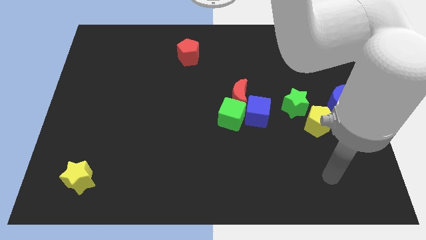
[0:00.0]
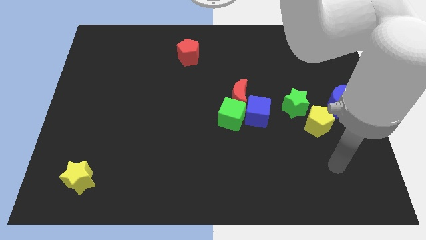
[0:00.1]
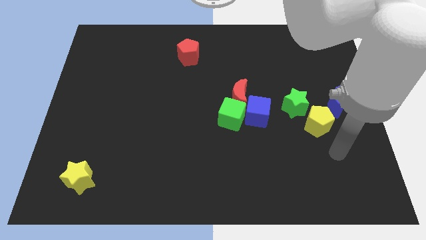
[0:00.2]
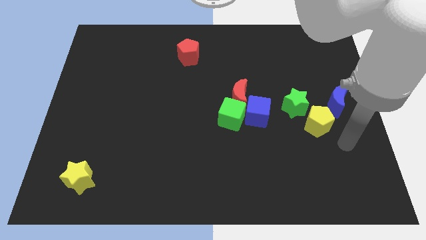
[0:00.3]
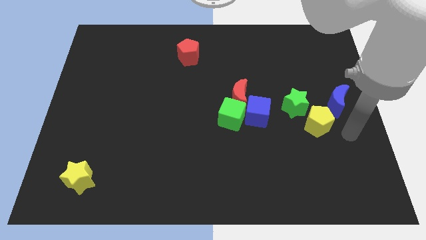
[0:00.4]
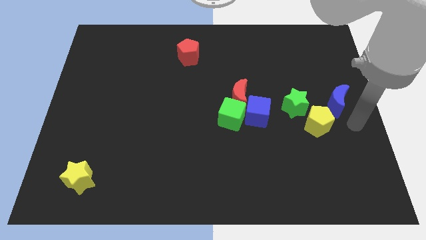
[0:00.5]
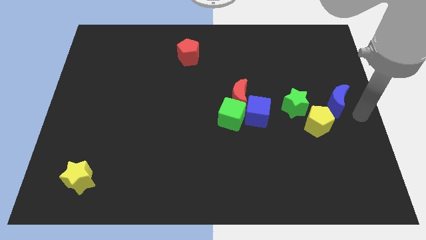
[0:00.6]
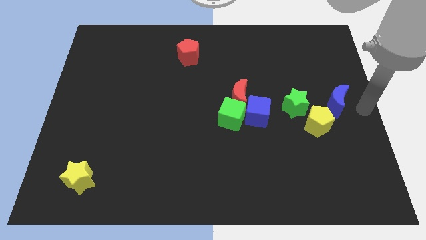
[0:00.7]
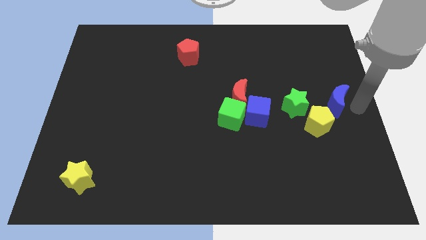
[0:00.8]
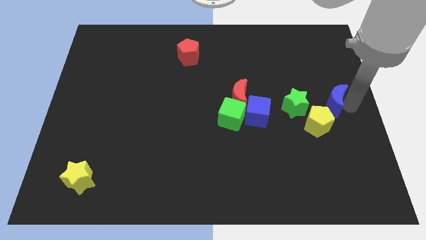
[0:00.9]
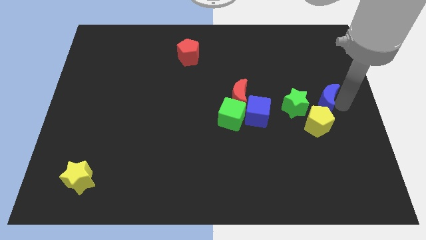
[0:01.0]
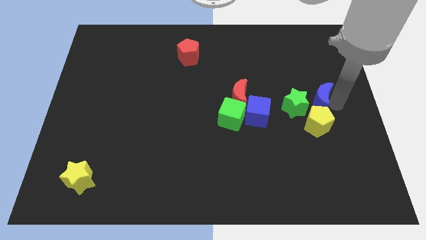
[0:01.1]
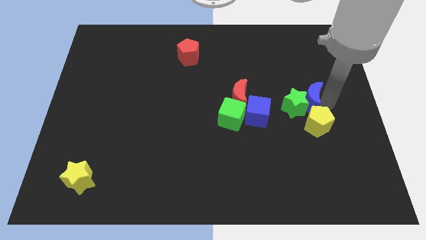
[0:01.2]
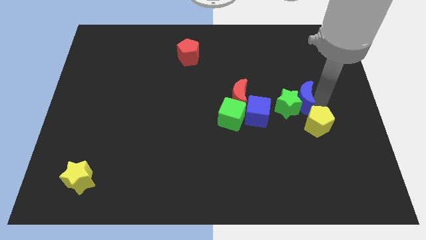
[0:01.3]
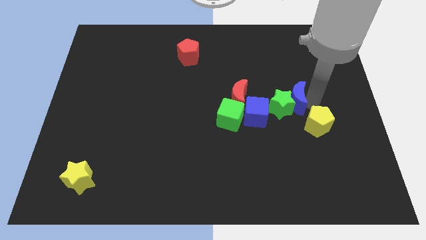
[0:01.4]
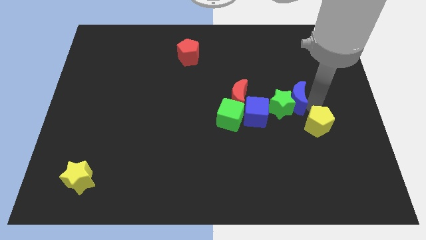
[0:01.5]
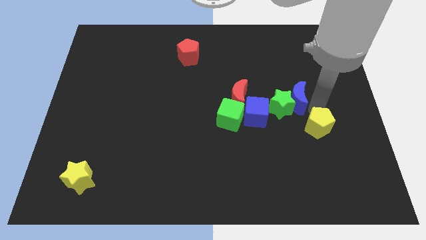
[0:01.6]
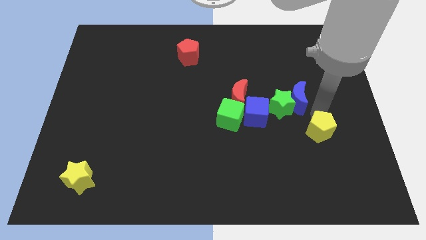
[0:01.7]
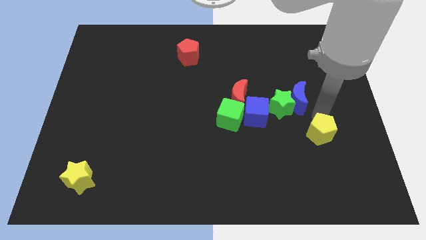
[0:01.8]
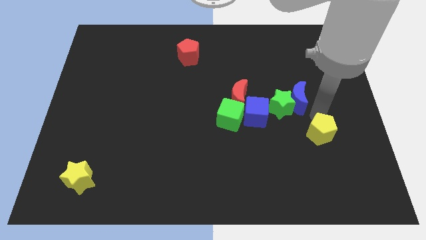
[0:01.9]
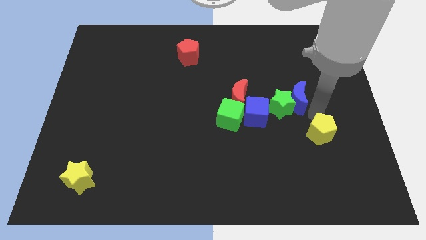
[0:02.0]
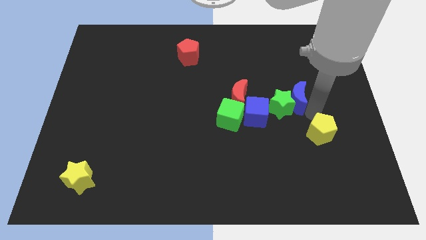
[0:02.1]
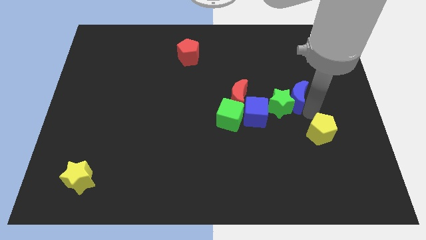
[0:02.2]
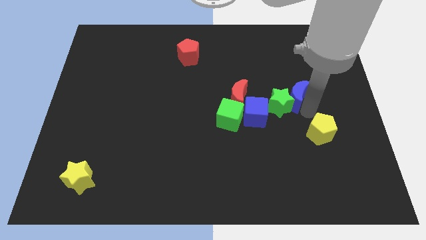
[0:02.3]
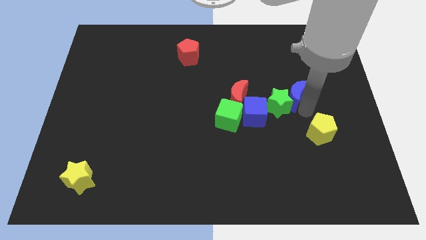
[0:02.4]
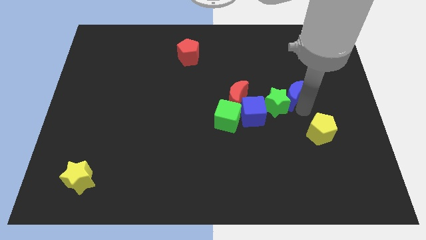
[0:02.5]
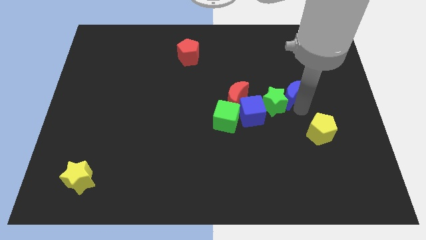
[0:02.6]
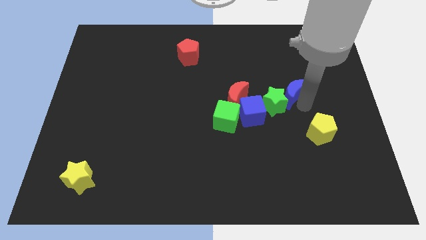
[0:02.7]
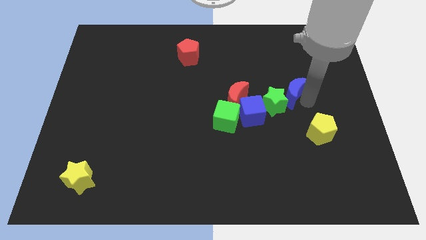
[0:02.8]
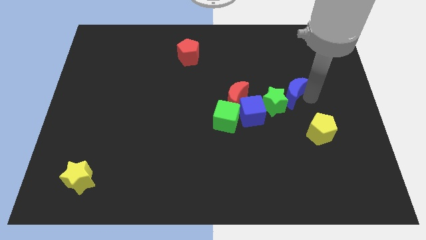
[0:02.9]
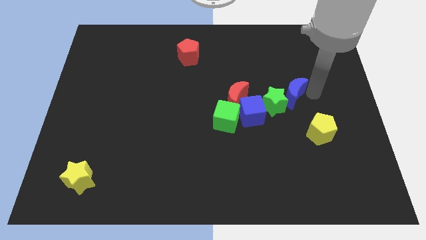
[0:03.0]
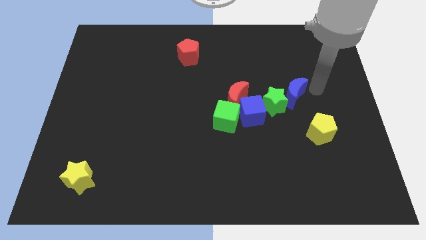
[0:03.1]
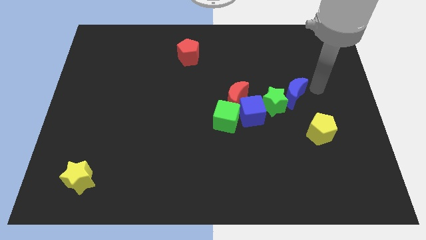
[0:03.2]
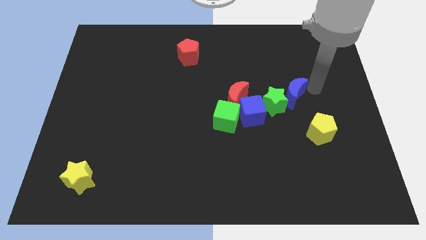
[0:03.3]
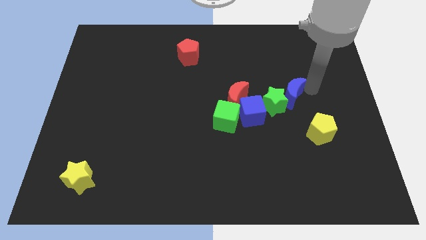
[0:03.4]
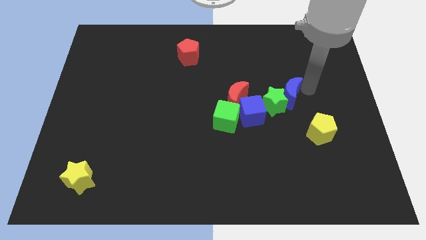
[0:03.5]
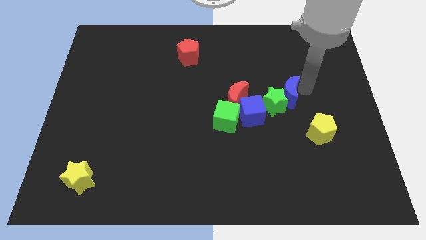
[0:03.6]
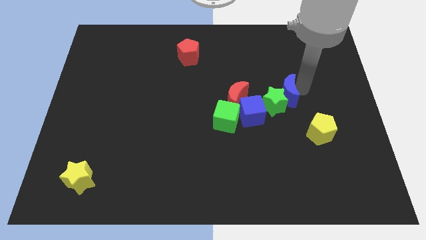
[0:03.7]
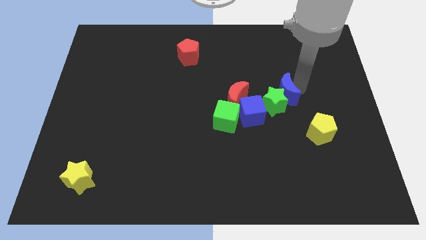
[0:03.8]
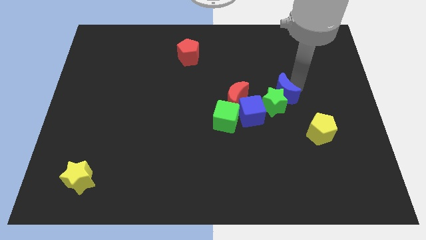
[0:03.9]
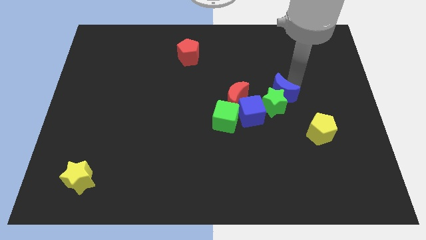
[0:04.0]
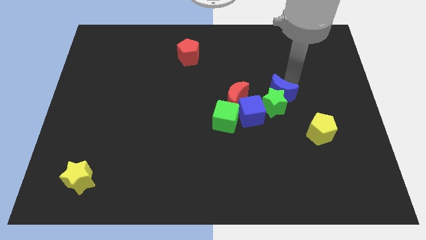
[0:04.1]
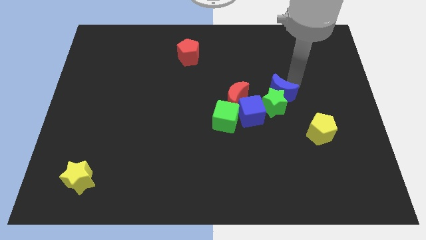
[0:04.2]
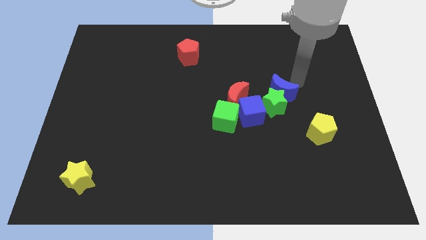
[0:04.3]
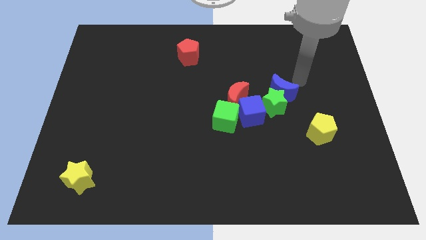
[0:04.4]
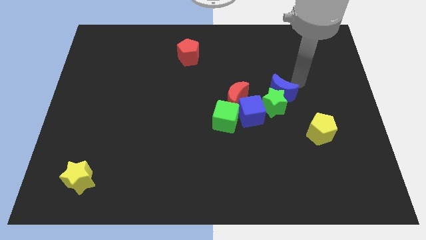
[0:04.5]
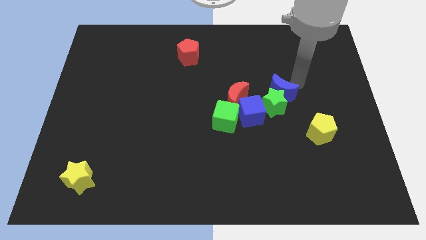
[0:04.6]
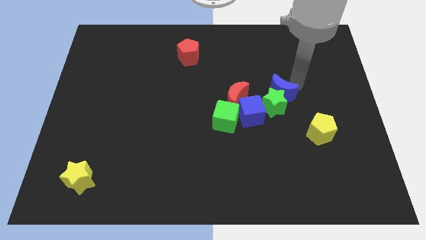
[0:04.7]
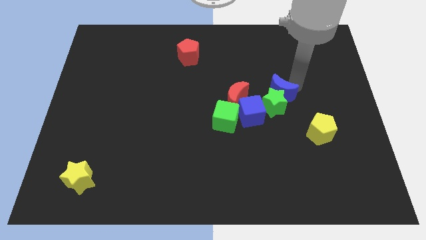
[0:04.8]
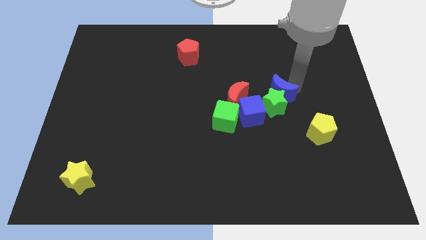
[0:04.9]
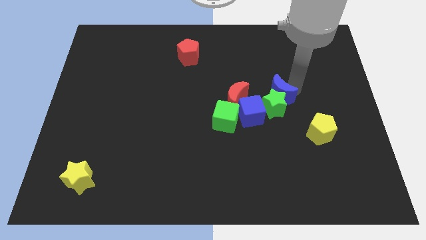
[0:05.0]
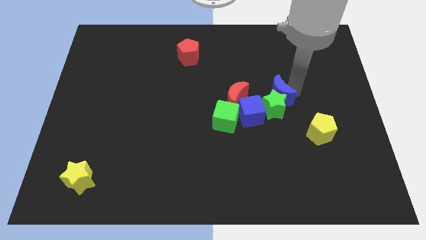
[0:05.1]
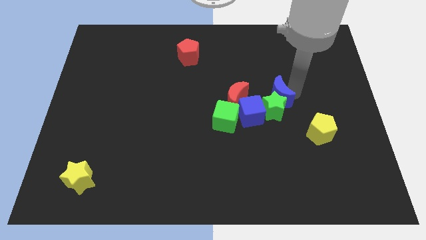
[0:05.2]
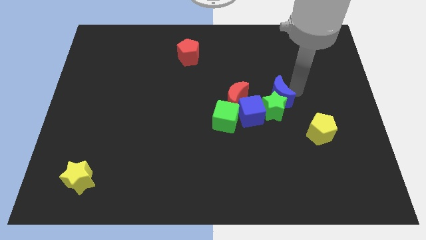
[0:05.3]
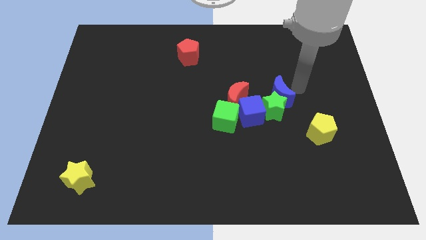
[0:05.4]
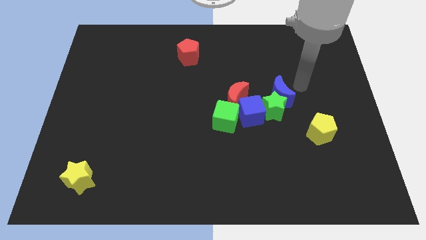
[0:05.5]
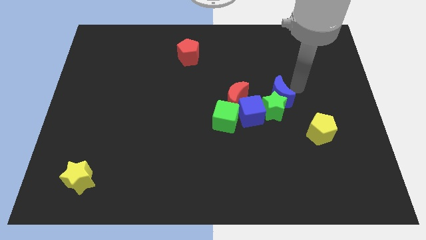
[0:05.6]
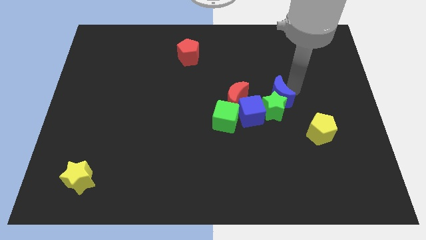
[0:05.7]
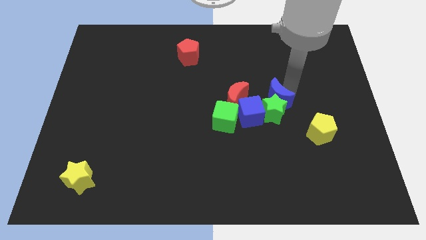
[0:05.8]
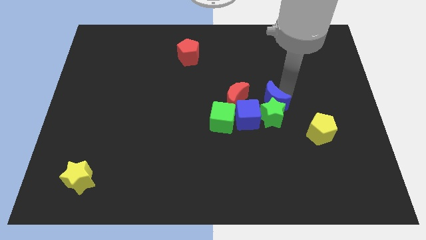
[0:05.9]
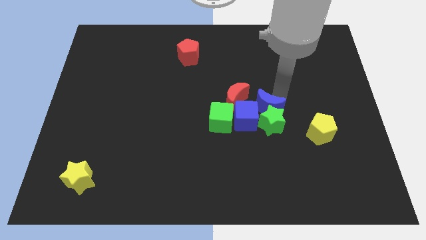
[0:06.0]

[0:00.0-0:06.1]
push the blue moon towards the blue cube

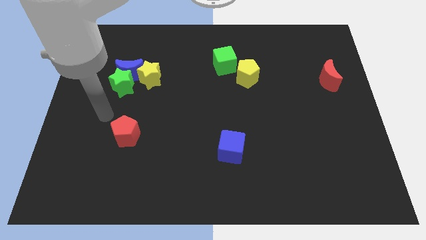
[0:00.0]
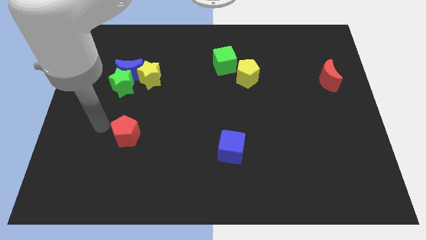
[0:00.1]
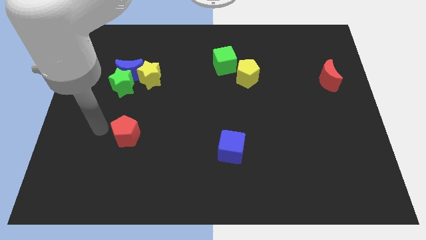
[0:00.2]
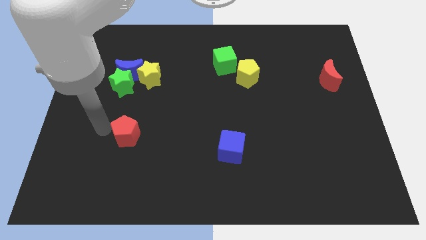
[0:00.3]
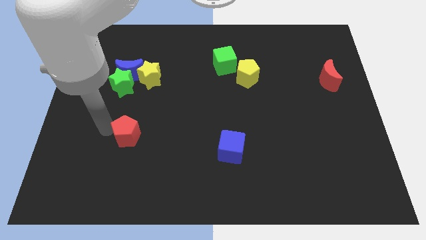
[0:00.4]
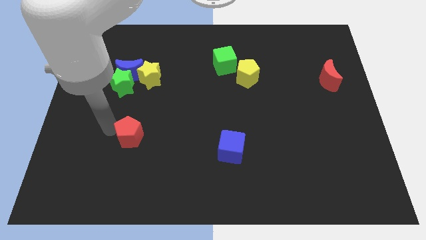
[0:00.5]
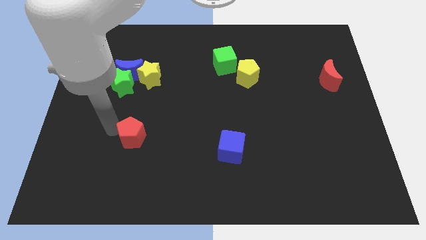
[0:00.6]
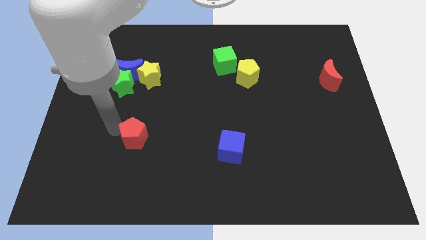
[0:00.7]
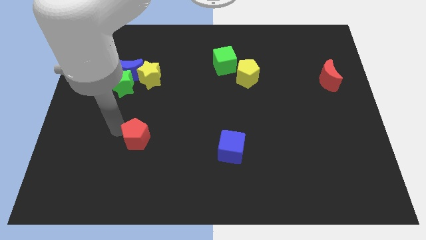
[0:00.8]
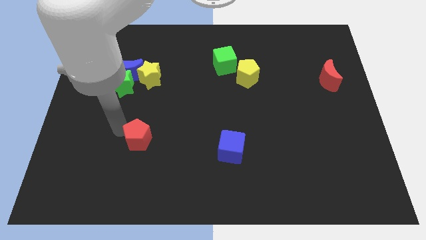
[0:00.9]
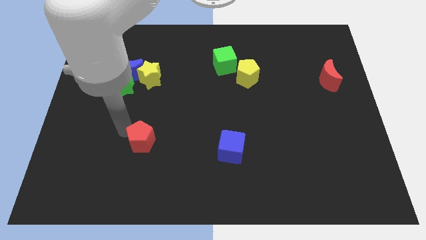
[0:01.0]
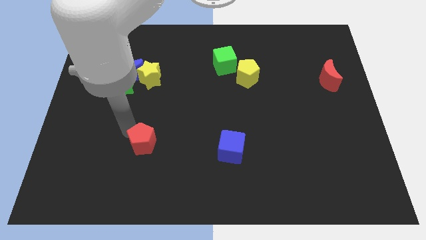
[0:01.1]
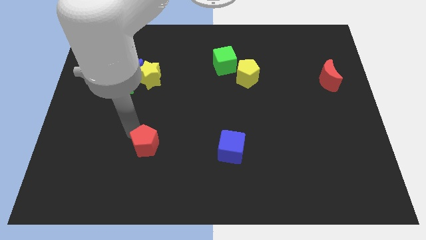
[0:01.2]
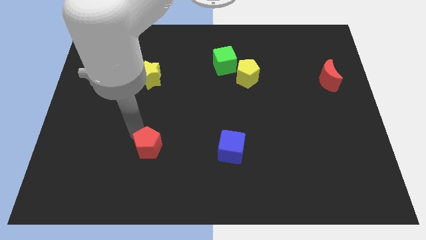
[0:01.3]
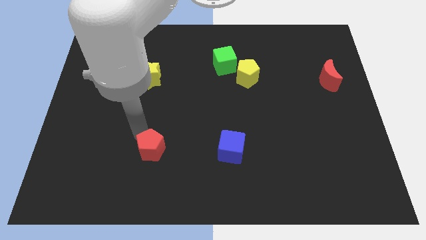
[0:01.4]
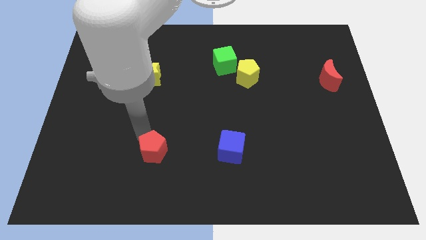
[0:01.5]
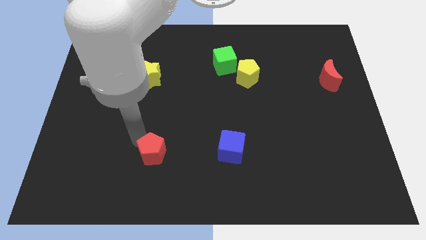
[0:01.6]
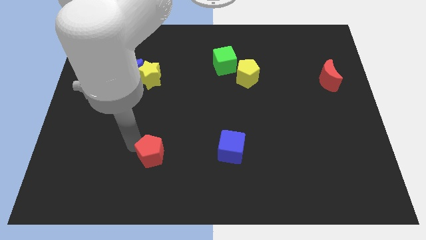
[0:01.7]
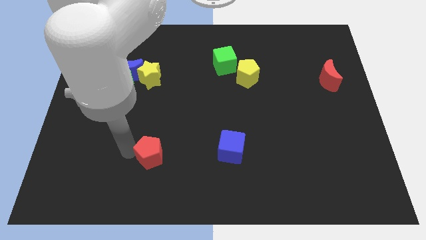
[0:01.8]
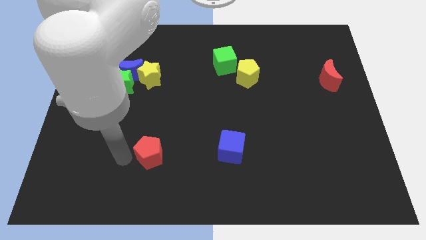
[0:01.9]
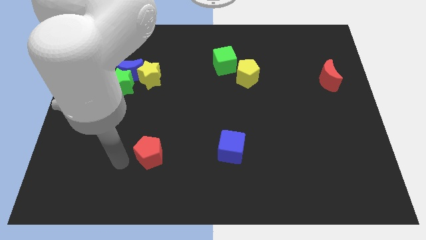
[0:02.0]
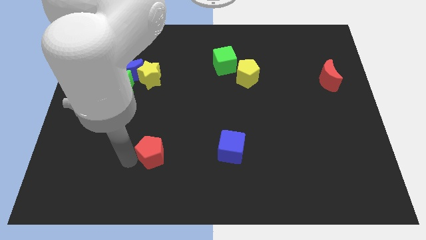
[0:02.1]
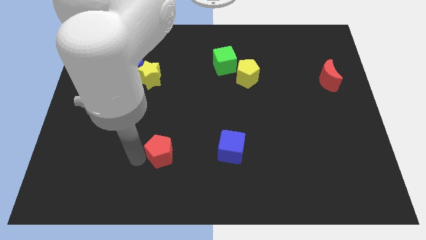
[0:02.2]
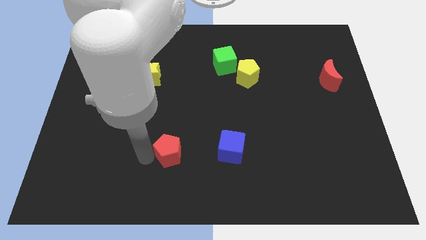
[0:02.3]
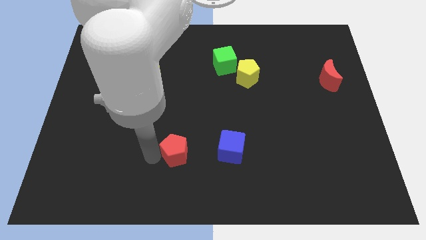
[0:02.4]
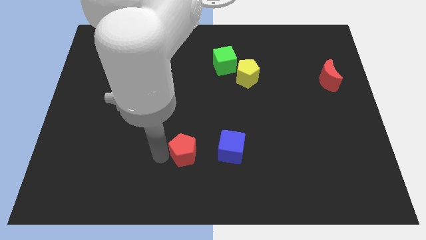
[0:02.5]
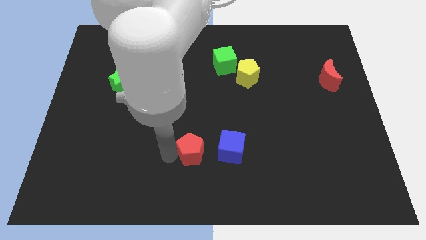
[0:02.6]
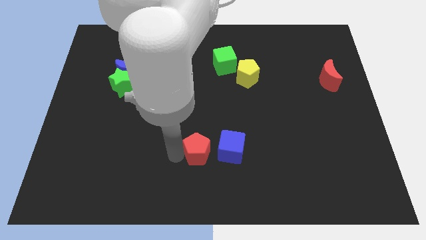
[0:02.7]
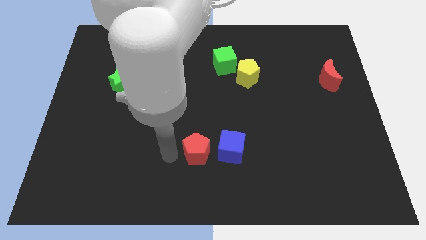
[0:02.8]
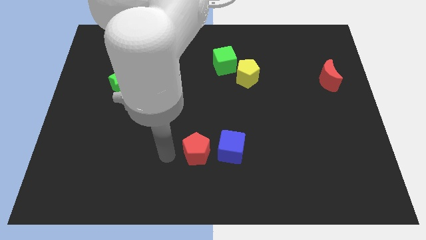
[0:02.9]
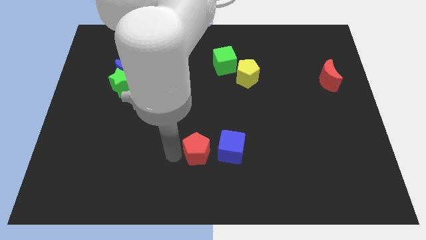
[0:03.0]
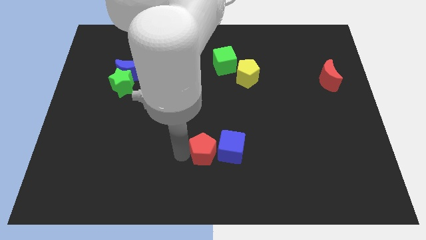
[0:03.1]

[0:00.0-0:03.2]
push the red pentagon close to the blue cube
